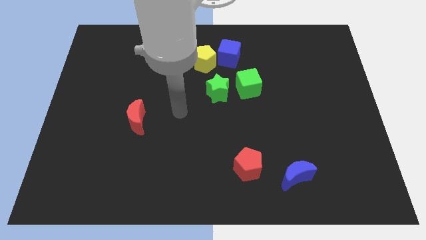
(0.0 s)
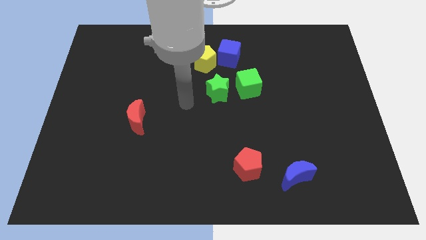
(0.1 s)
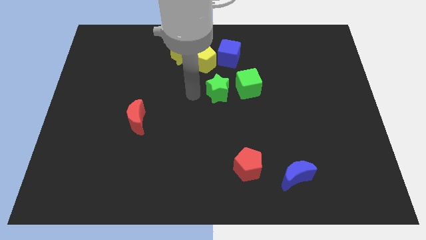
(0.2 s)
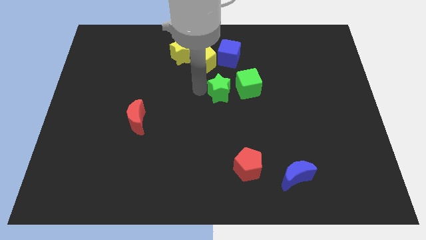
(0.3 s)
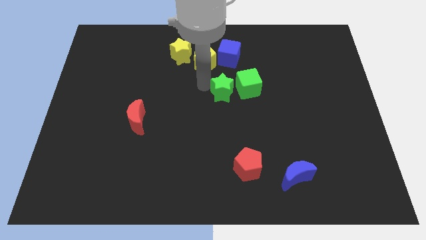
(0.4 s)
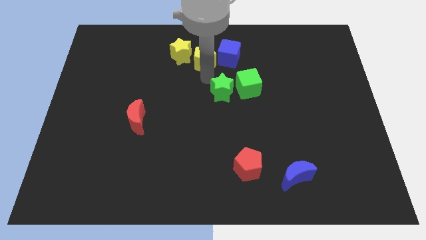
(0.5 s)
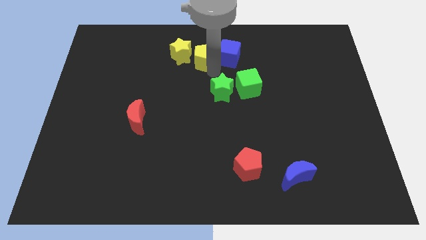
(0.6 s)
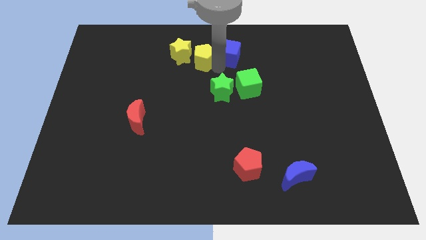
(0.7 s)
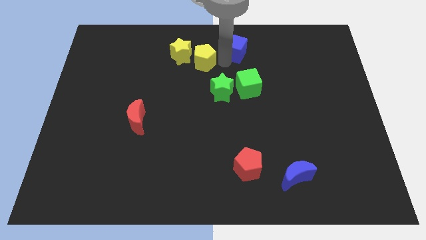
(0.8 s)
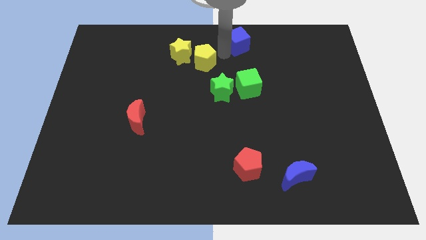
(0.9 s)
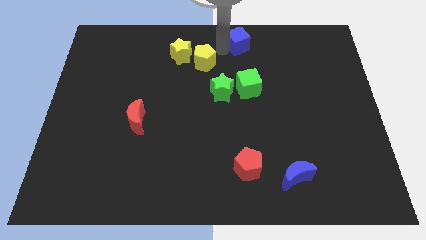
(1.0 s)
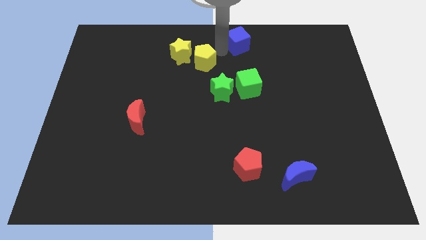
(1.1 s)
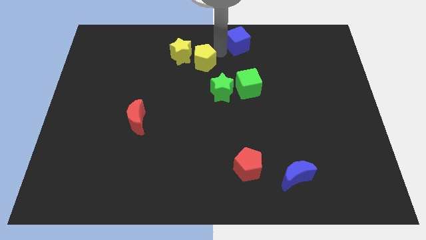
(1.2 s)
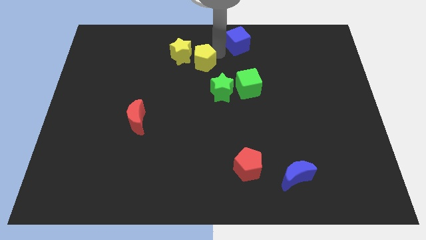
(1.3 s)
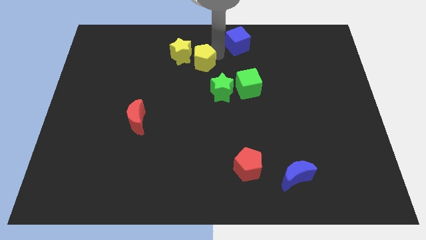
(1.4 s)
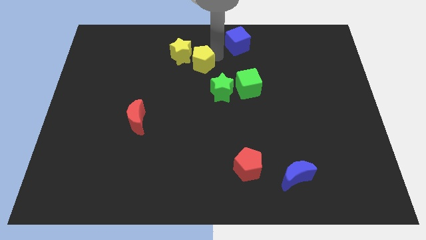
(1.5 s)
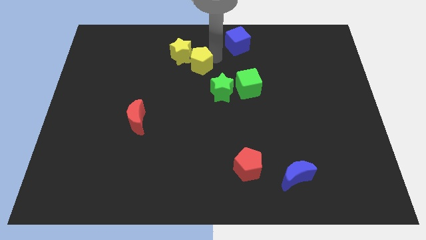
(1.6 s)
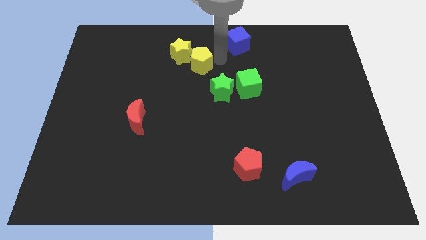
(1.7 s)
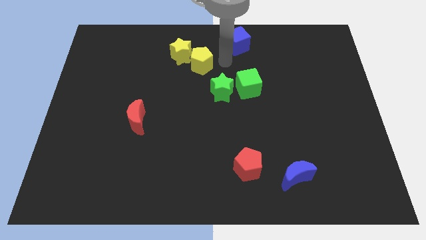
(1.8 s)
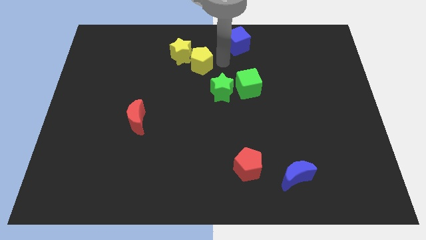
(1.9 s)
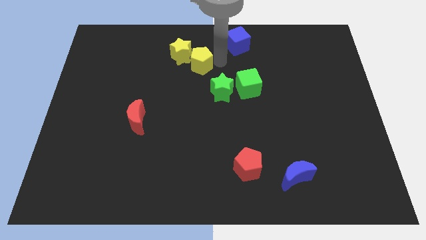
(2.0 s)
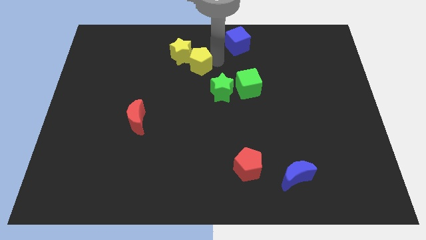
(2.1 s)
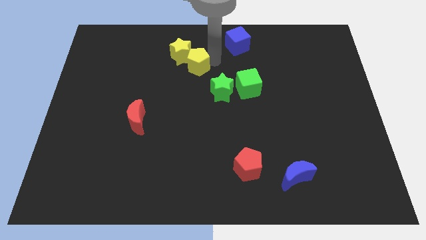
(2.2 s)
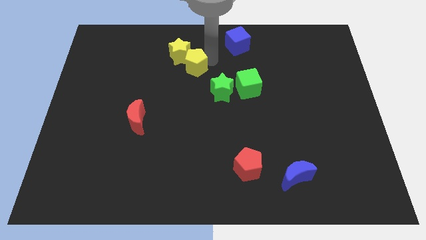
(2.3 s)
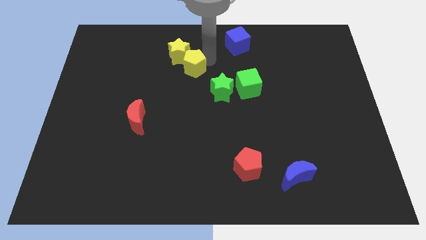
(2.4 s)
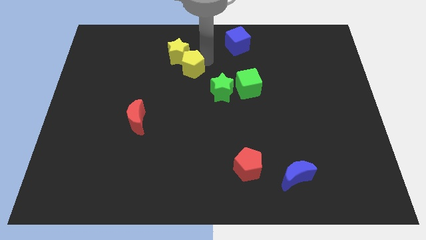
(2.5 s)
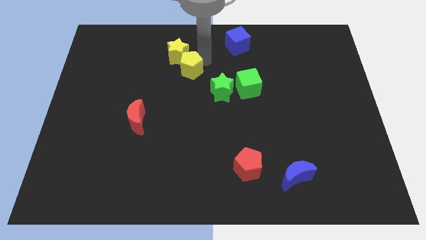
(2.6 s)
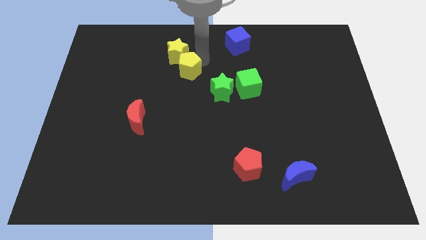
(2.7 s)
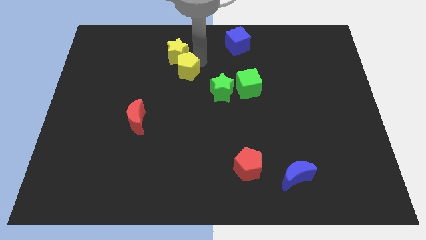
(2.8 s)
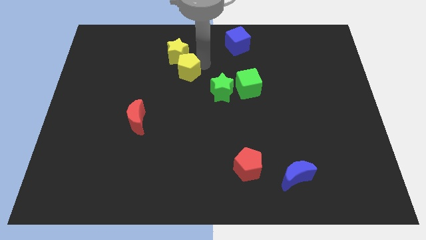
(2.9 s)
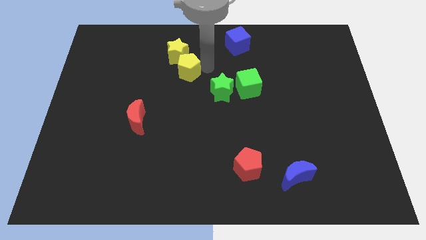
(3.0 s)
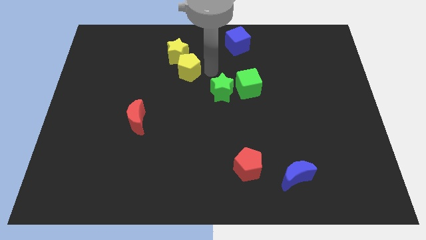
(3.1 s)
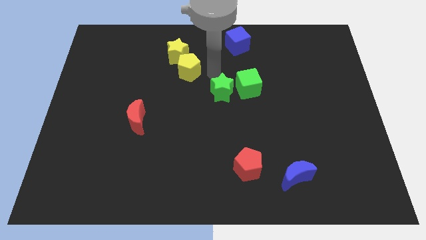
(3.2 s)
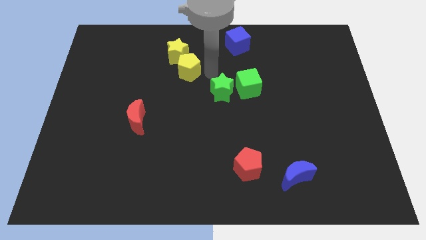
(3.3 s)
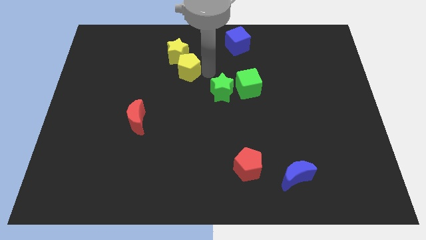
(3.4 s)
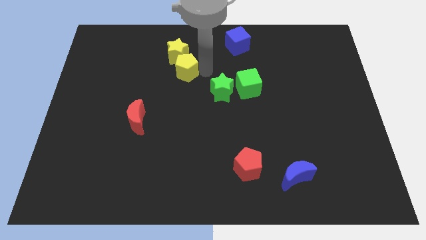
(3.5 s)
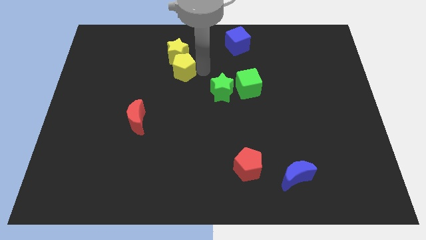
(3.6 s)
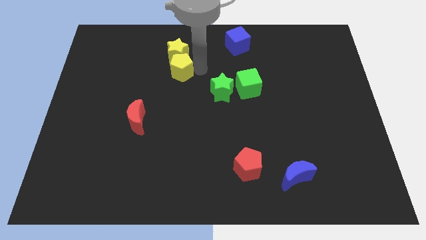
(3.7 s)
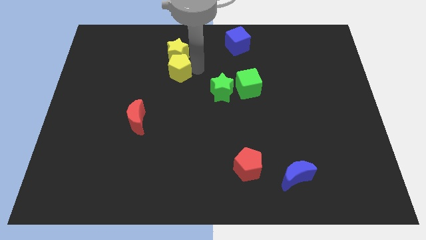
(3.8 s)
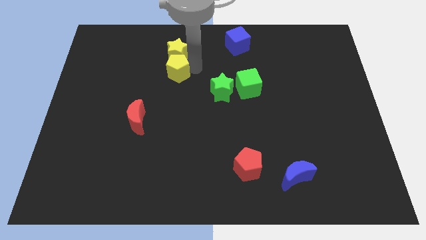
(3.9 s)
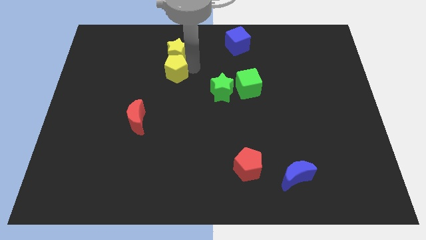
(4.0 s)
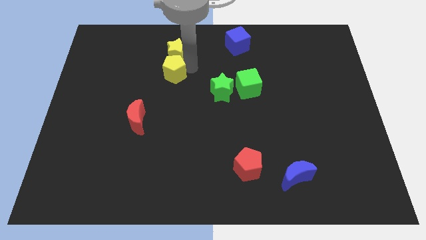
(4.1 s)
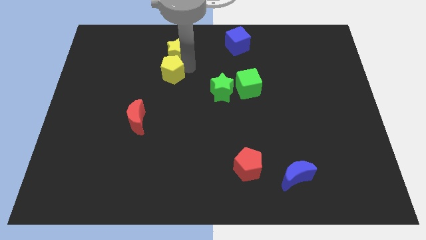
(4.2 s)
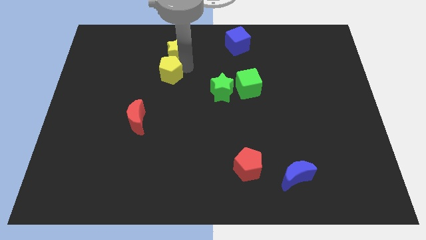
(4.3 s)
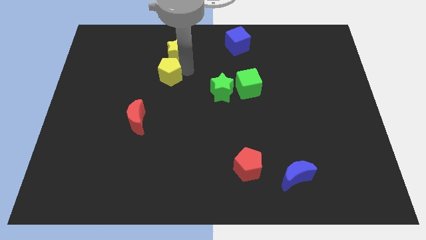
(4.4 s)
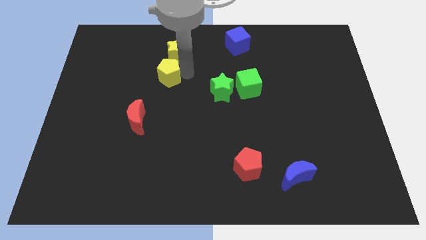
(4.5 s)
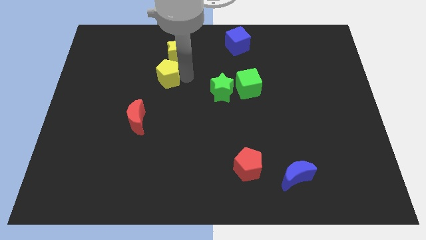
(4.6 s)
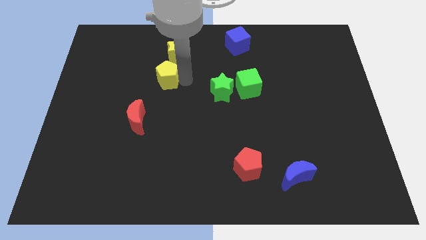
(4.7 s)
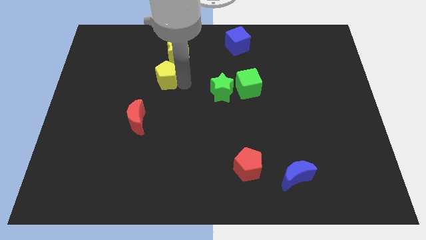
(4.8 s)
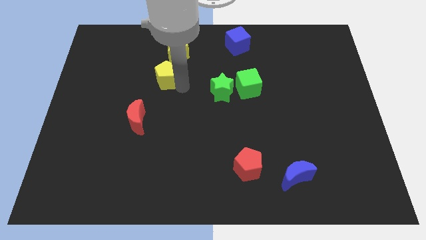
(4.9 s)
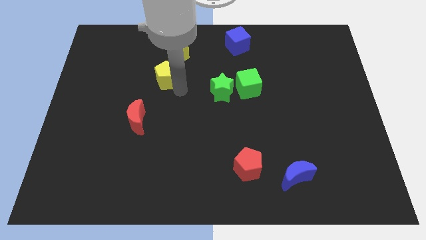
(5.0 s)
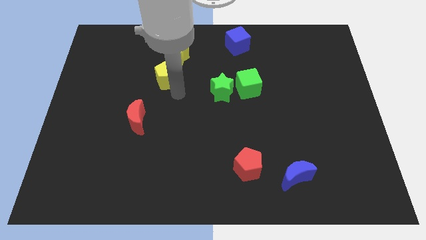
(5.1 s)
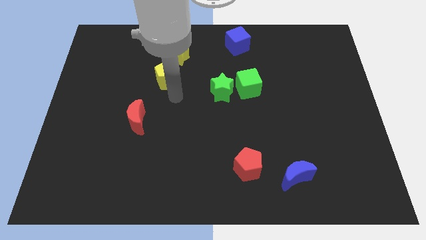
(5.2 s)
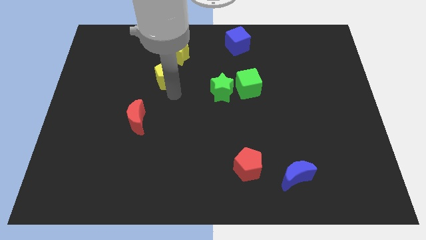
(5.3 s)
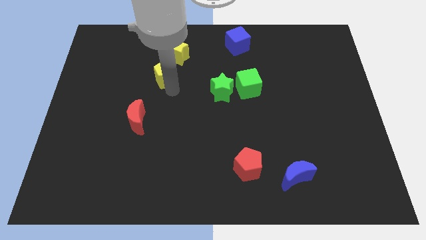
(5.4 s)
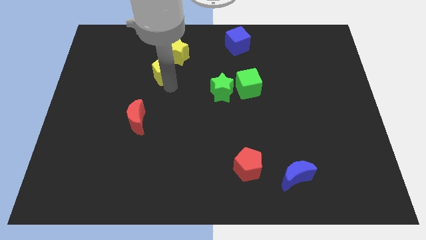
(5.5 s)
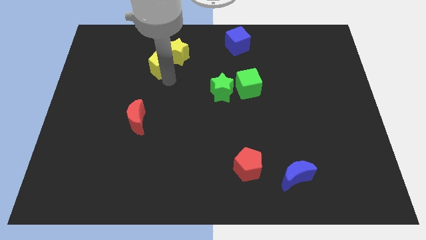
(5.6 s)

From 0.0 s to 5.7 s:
push the yellow pentagon to the left of the yellow star

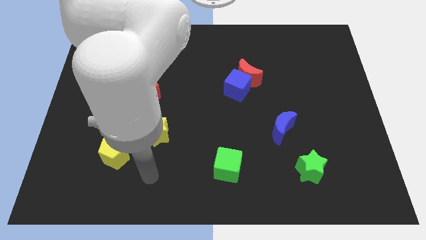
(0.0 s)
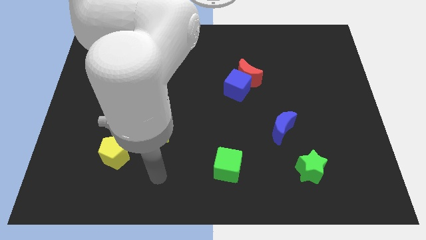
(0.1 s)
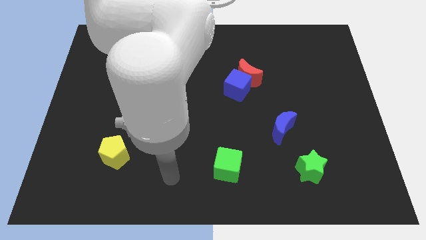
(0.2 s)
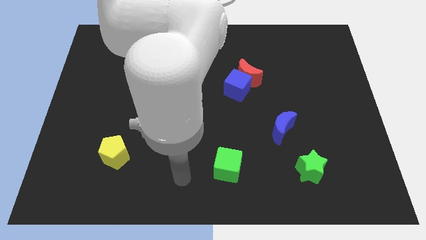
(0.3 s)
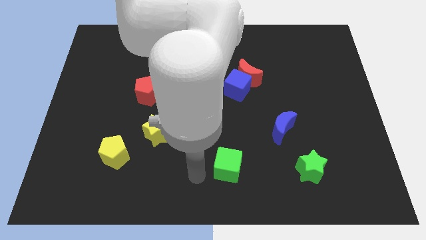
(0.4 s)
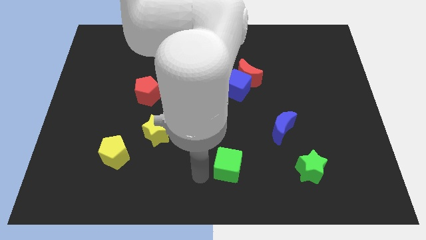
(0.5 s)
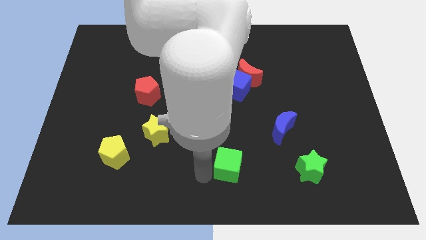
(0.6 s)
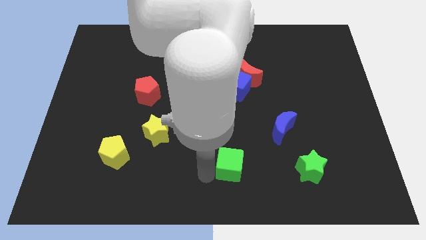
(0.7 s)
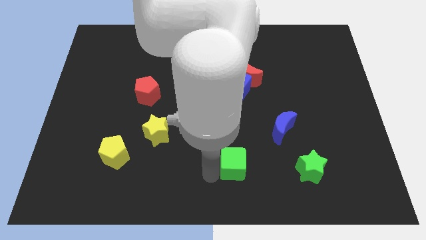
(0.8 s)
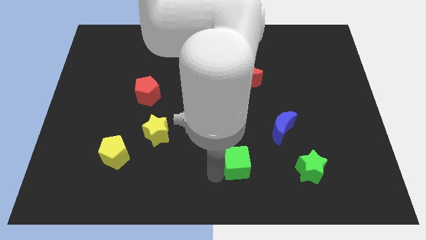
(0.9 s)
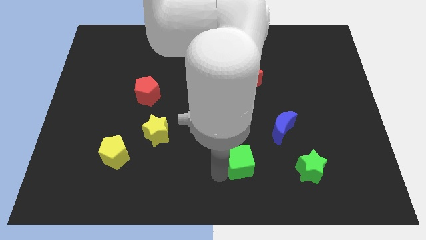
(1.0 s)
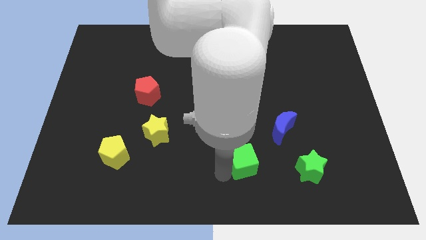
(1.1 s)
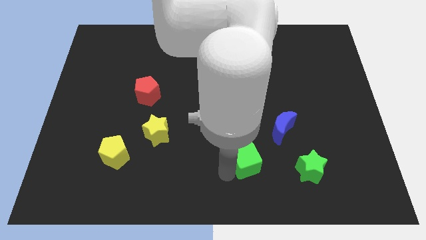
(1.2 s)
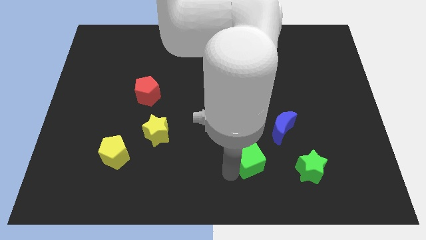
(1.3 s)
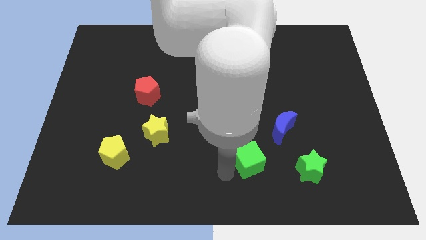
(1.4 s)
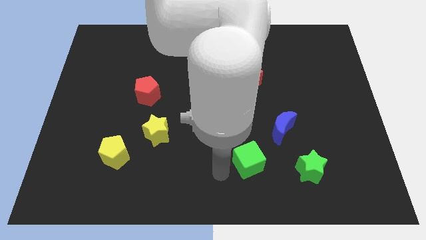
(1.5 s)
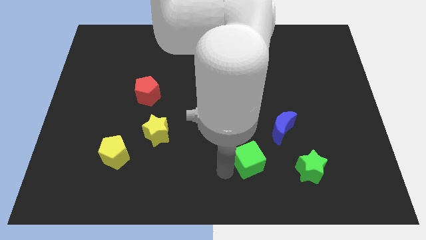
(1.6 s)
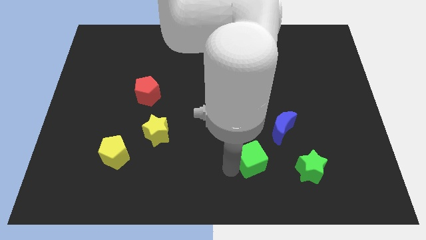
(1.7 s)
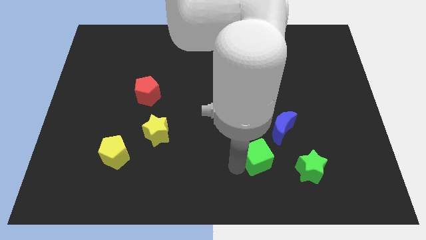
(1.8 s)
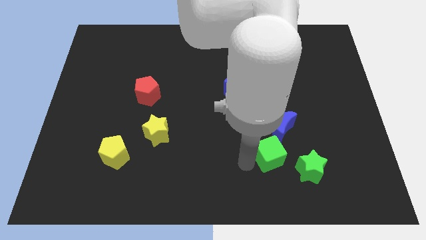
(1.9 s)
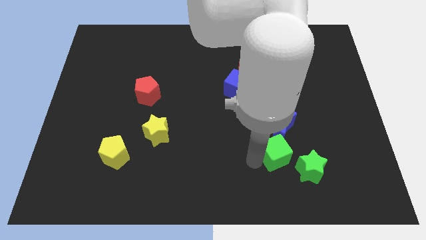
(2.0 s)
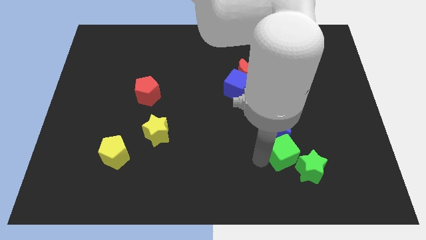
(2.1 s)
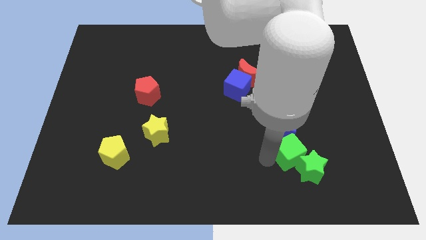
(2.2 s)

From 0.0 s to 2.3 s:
slide the green cube to the top of the green star
